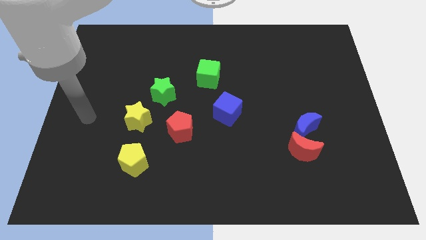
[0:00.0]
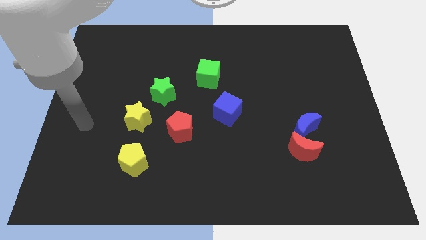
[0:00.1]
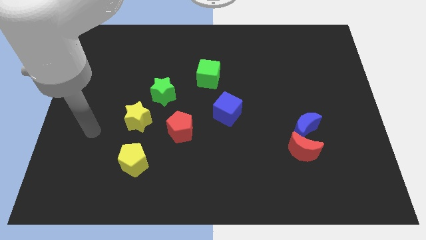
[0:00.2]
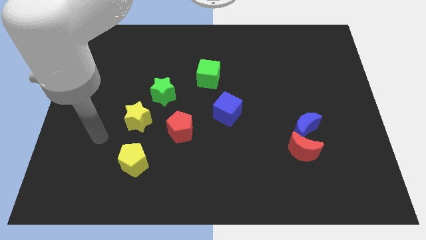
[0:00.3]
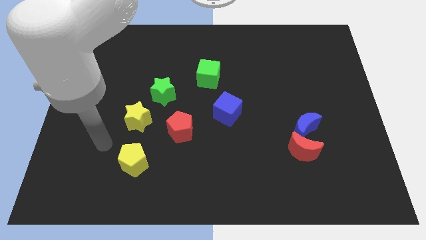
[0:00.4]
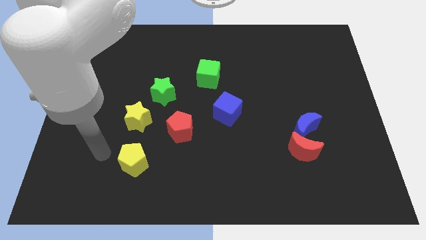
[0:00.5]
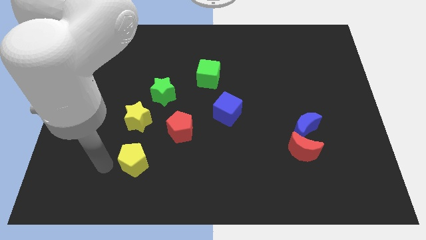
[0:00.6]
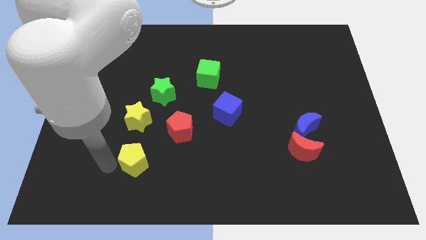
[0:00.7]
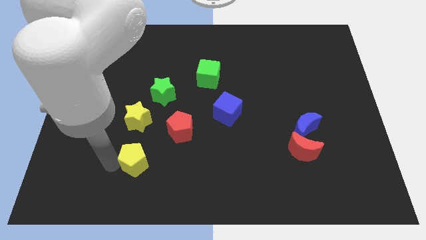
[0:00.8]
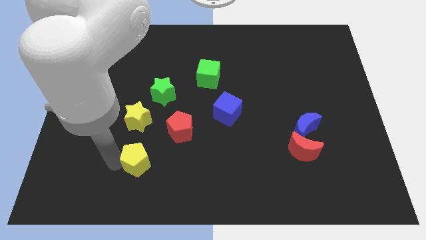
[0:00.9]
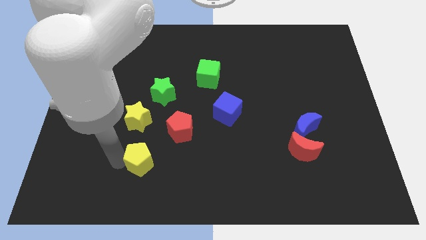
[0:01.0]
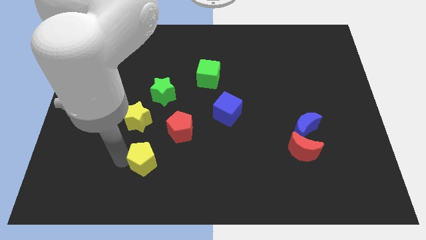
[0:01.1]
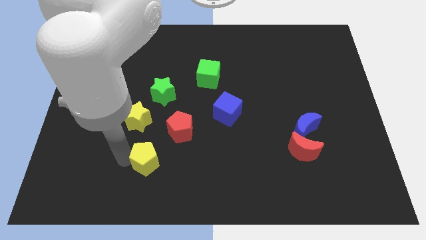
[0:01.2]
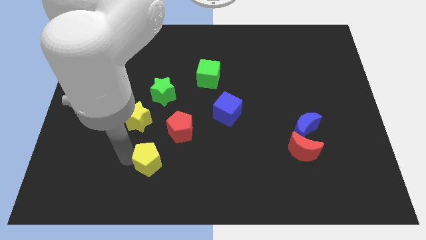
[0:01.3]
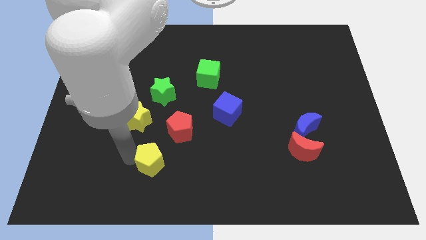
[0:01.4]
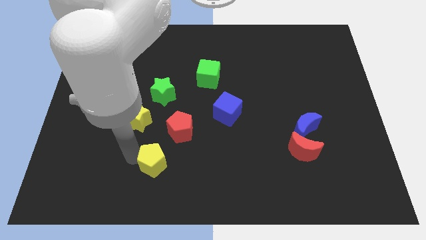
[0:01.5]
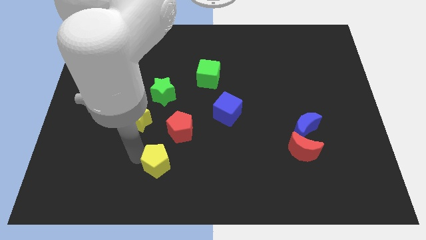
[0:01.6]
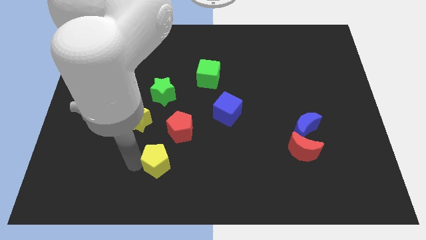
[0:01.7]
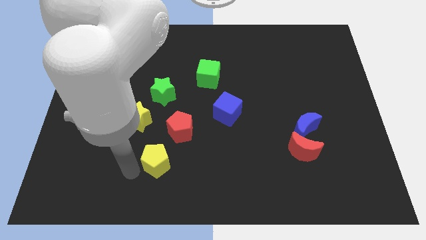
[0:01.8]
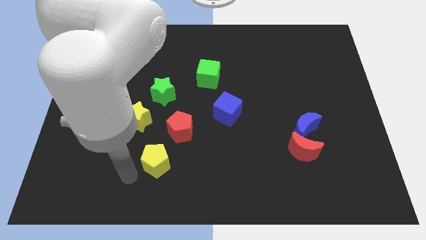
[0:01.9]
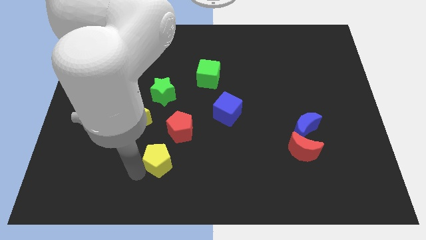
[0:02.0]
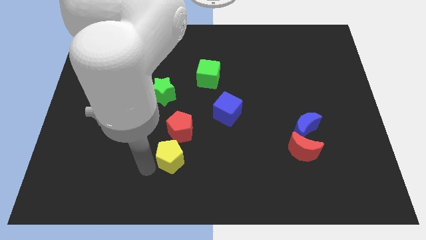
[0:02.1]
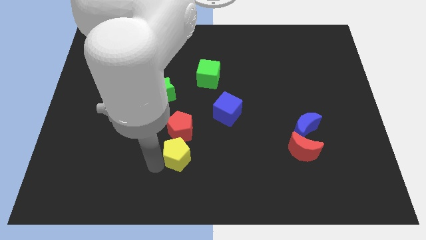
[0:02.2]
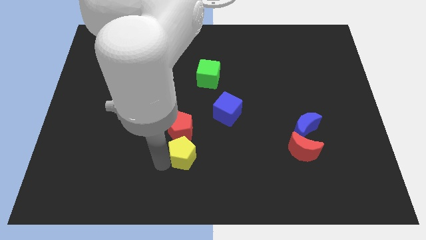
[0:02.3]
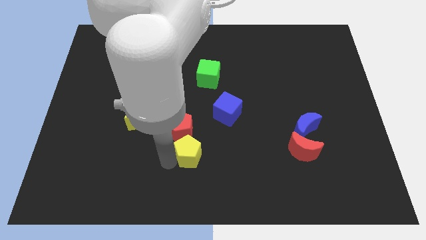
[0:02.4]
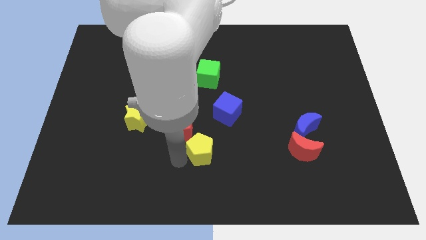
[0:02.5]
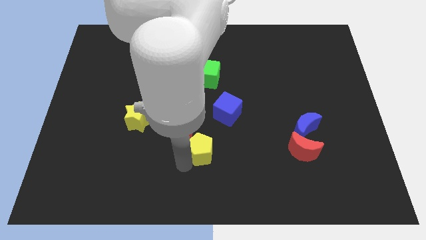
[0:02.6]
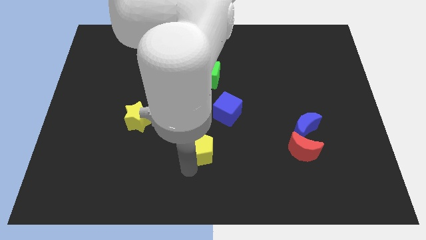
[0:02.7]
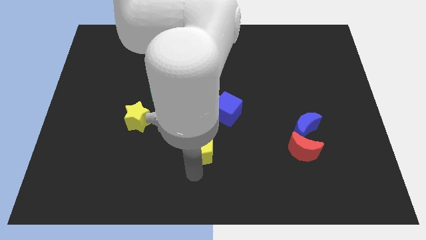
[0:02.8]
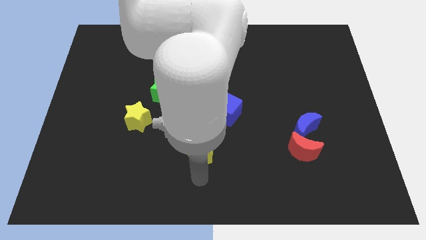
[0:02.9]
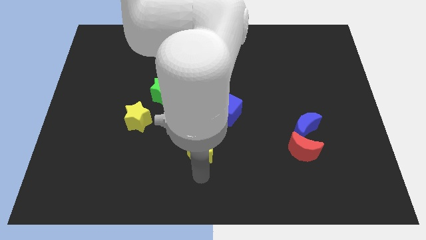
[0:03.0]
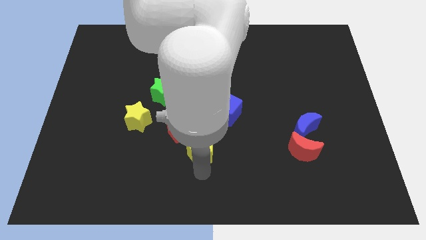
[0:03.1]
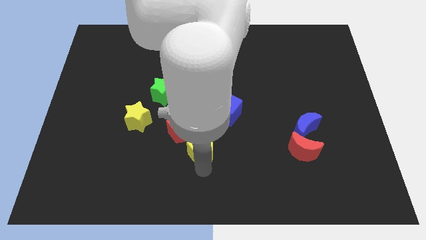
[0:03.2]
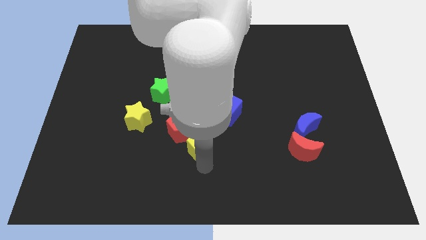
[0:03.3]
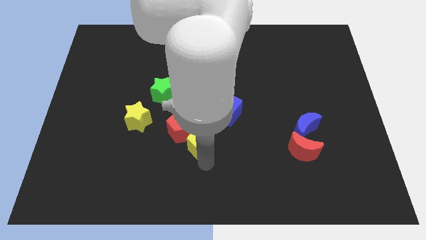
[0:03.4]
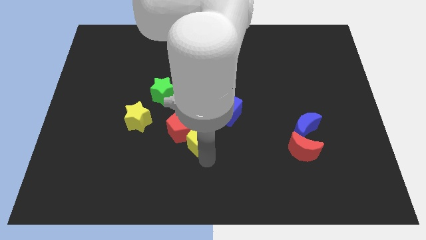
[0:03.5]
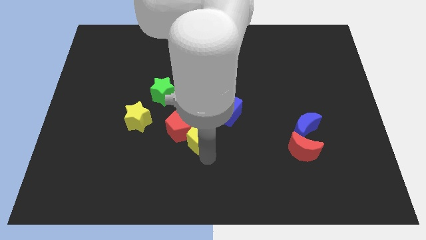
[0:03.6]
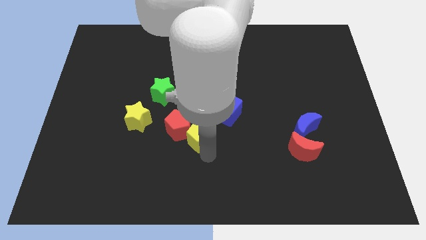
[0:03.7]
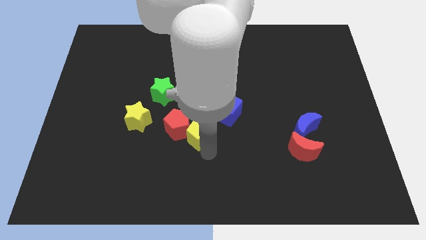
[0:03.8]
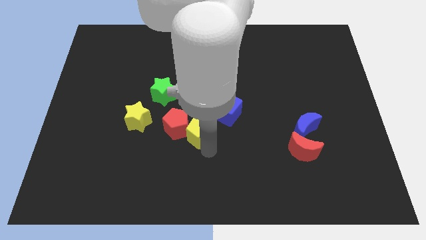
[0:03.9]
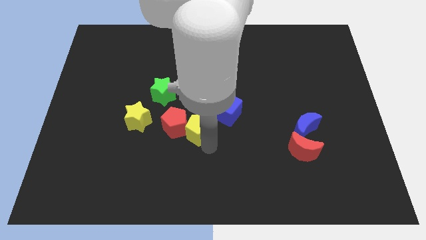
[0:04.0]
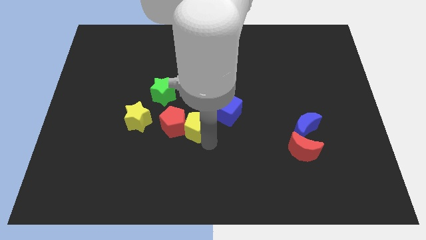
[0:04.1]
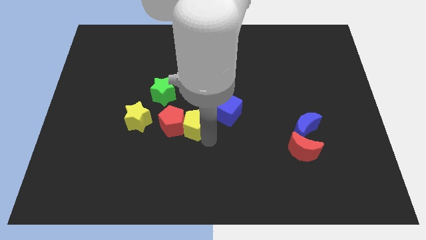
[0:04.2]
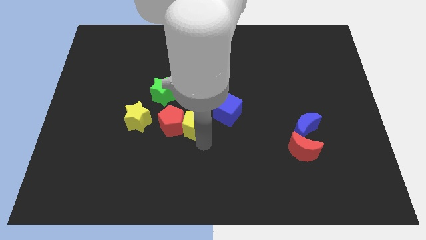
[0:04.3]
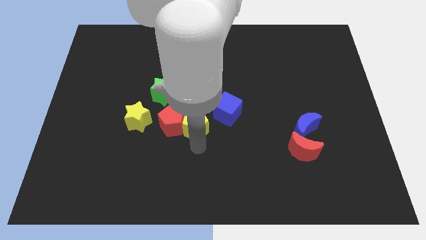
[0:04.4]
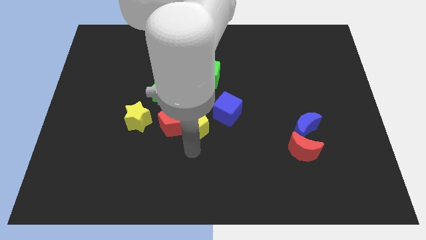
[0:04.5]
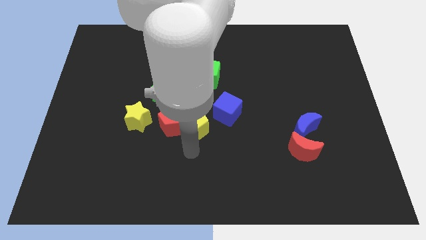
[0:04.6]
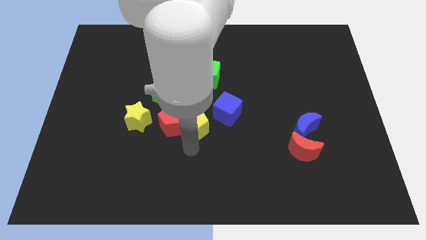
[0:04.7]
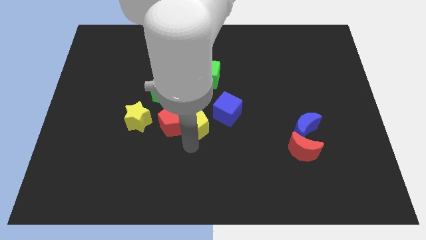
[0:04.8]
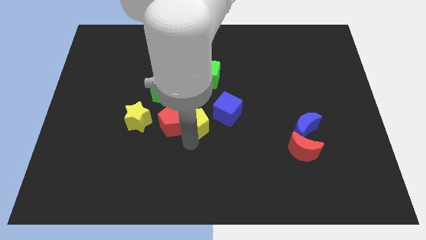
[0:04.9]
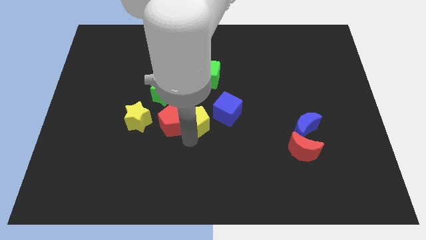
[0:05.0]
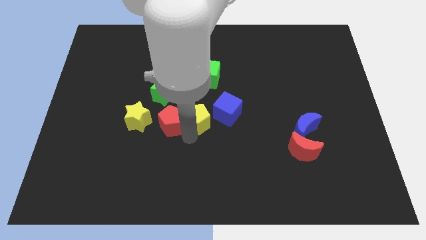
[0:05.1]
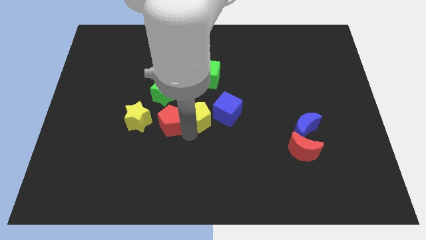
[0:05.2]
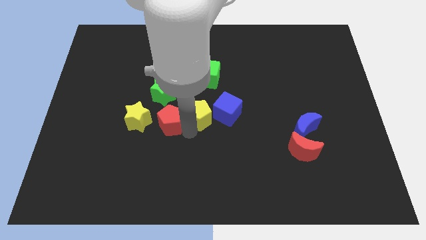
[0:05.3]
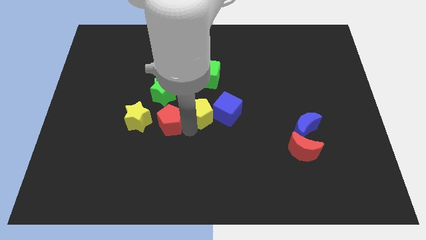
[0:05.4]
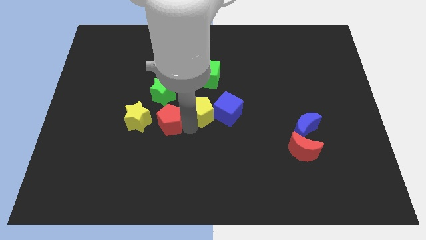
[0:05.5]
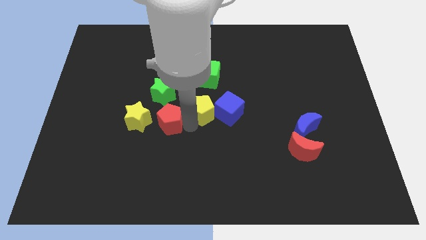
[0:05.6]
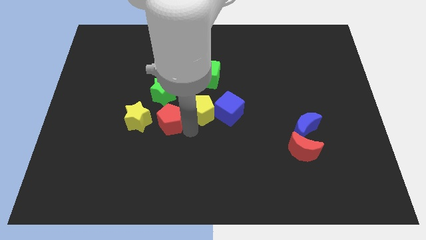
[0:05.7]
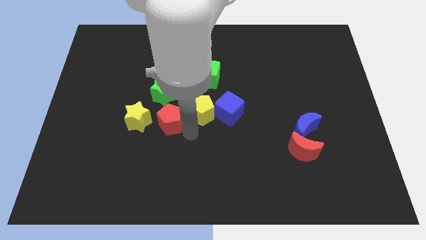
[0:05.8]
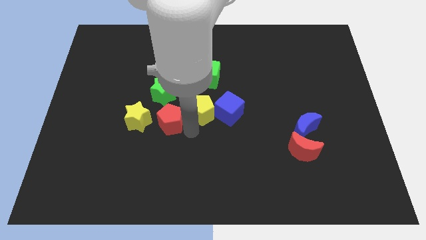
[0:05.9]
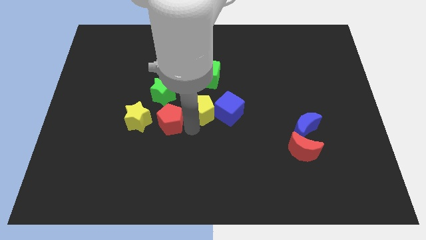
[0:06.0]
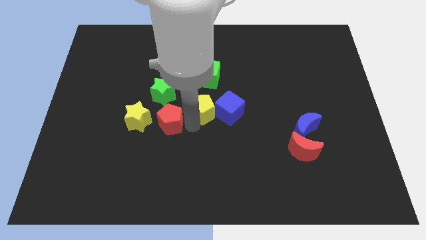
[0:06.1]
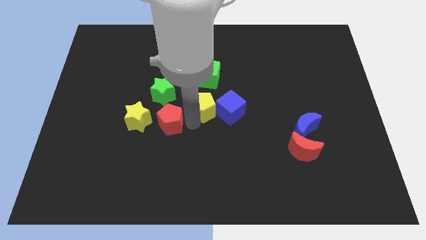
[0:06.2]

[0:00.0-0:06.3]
push the yellow pentagon upwards and right diagonally

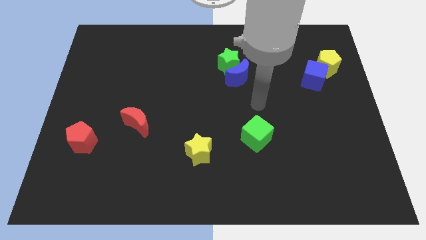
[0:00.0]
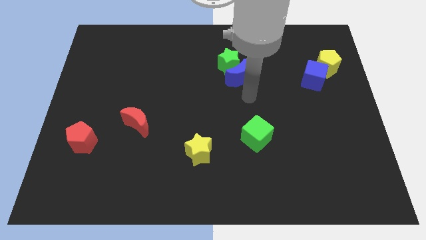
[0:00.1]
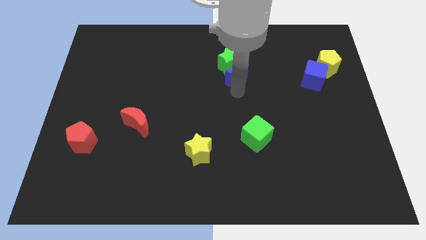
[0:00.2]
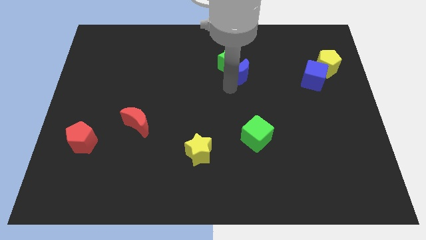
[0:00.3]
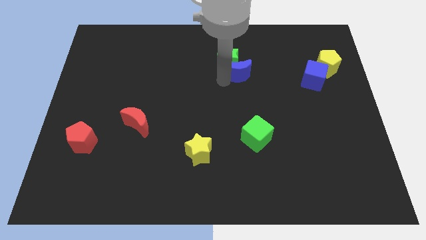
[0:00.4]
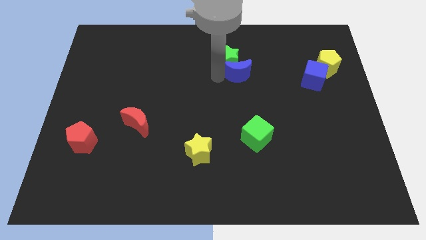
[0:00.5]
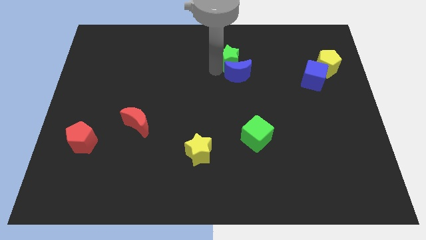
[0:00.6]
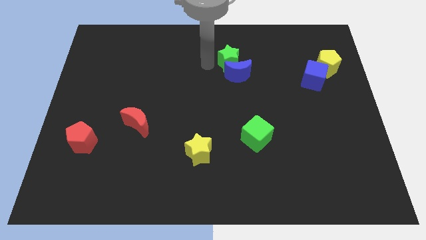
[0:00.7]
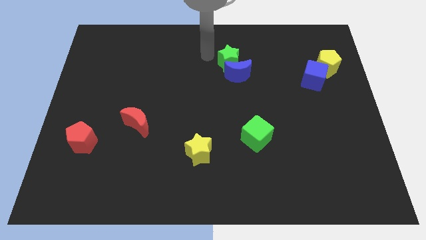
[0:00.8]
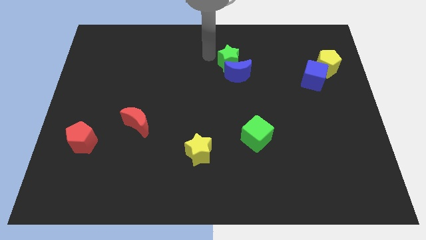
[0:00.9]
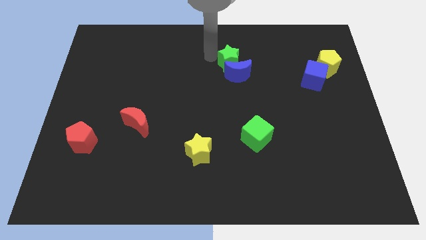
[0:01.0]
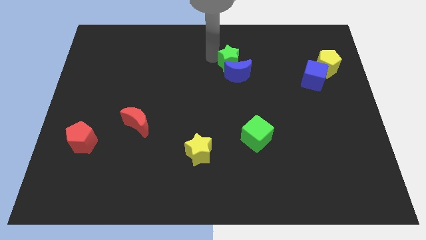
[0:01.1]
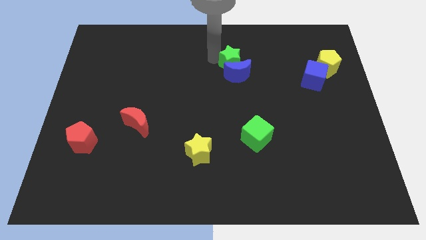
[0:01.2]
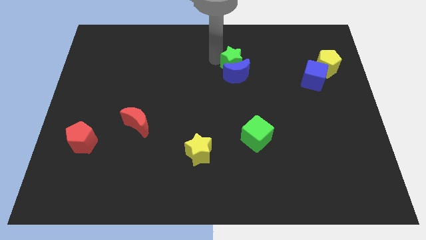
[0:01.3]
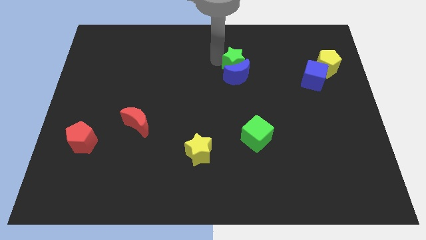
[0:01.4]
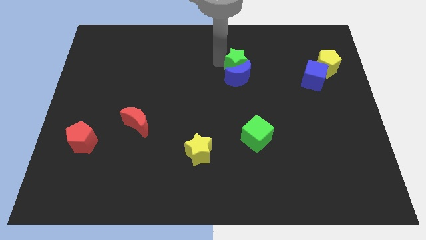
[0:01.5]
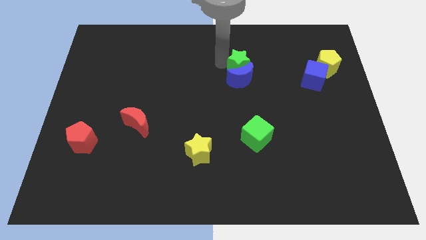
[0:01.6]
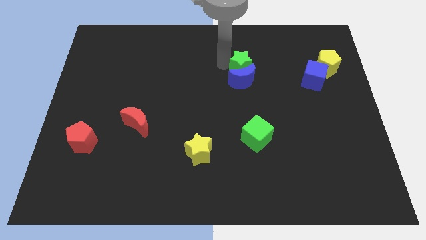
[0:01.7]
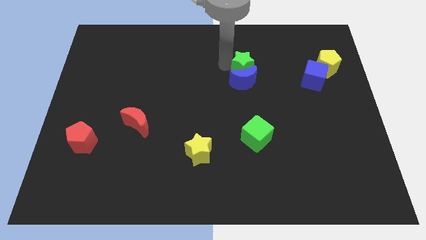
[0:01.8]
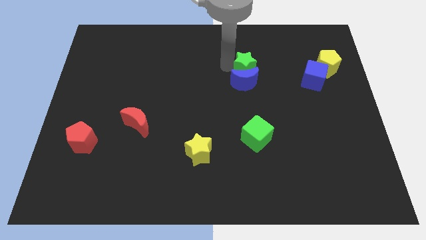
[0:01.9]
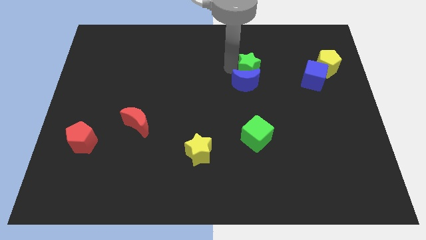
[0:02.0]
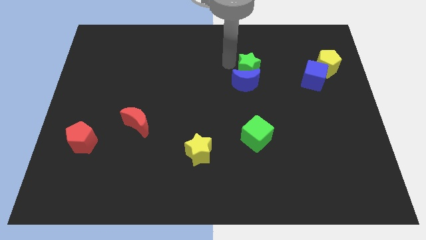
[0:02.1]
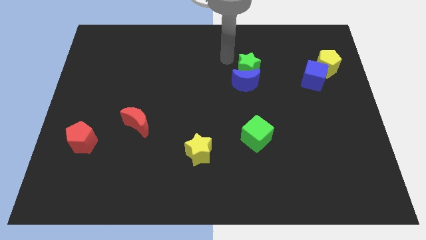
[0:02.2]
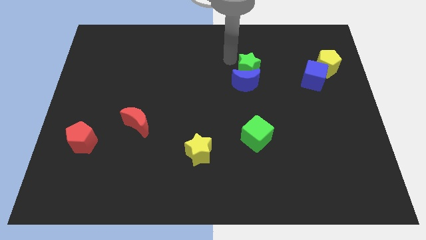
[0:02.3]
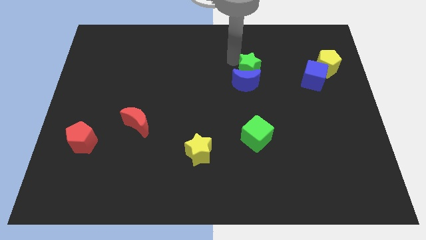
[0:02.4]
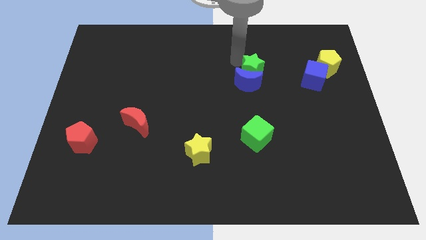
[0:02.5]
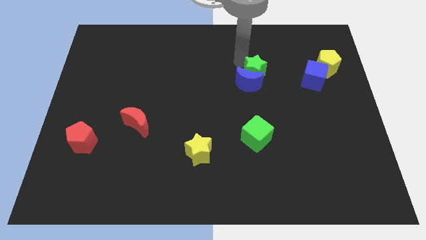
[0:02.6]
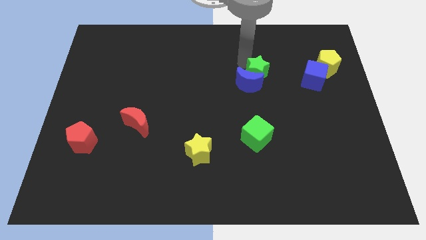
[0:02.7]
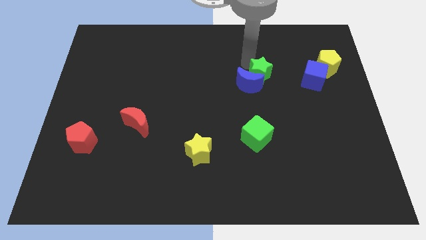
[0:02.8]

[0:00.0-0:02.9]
slide the green star downwards and then right slightly
